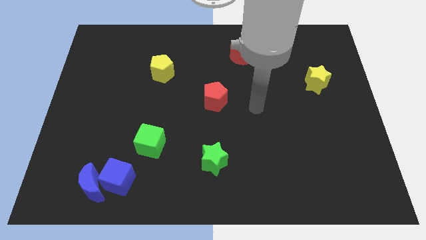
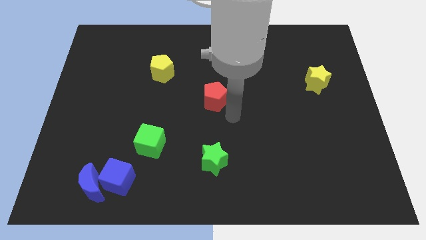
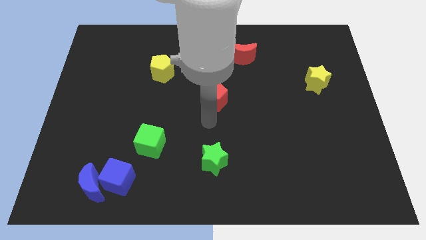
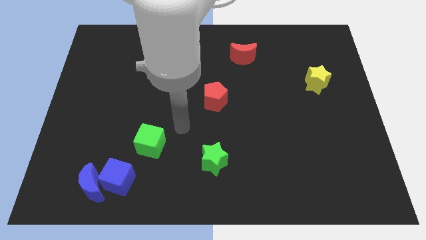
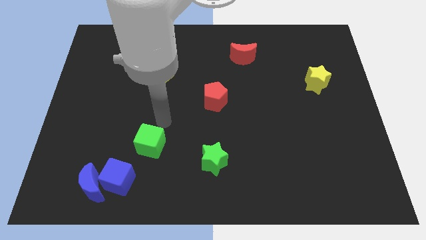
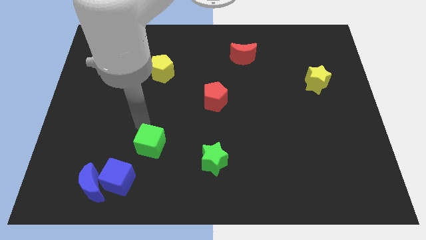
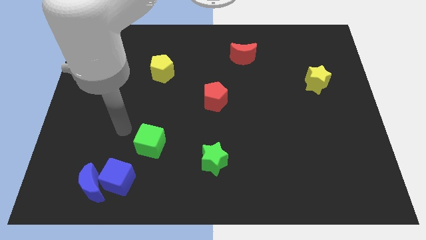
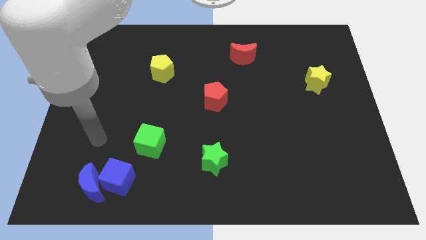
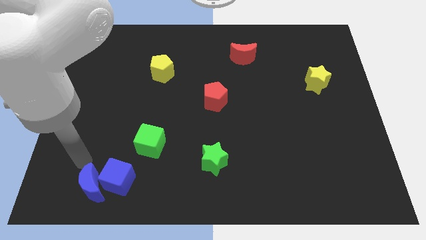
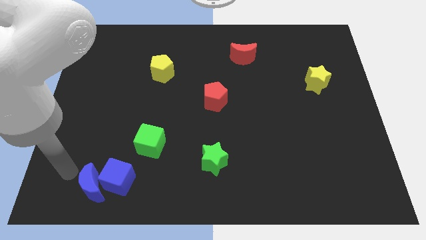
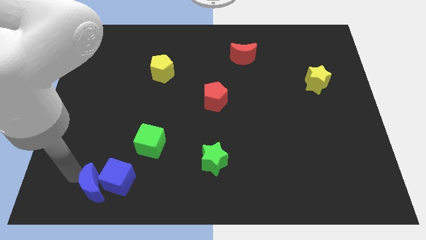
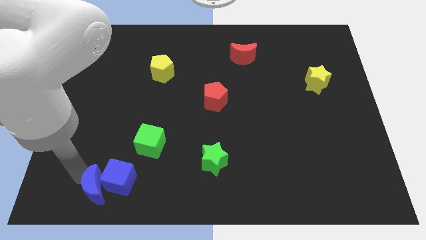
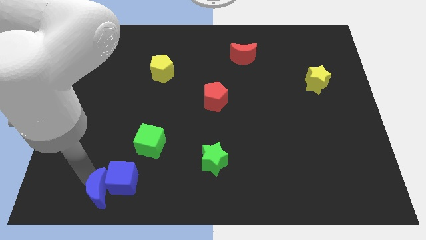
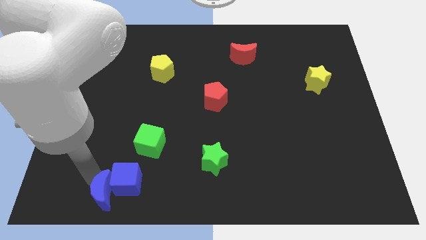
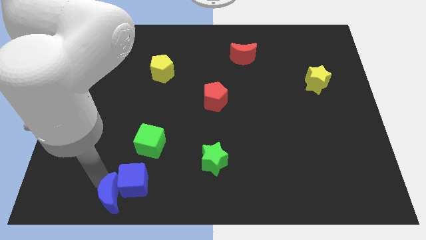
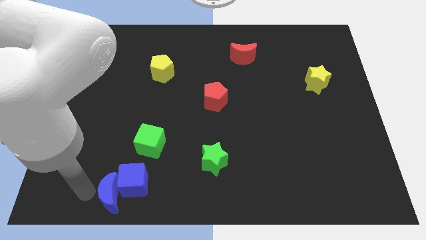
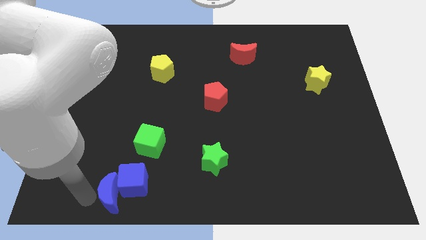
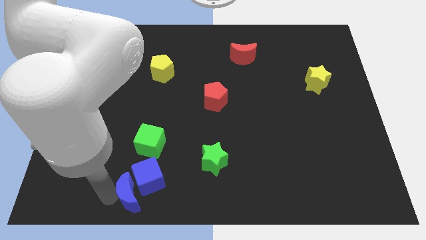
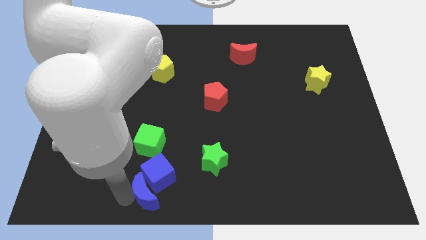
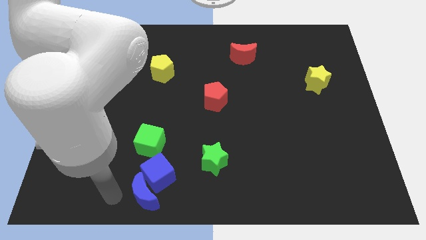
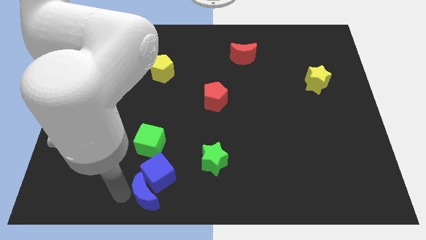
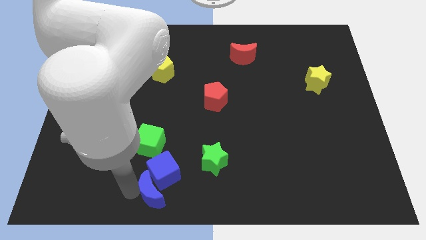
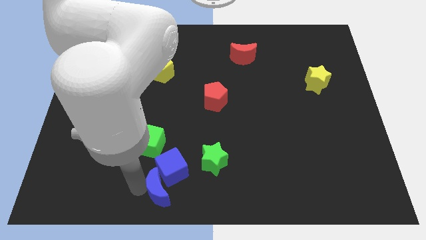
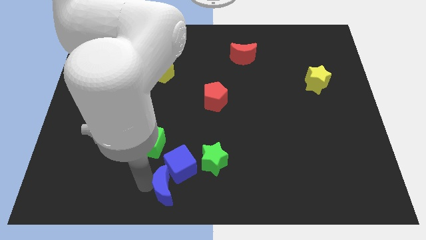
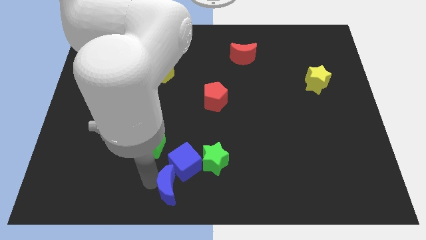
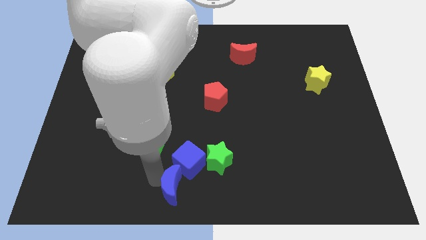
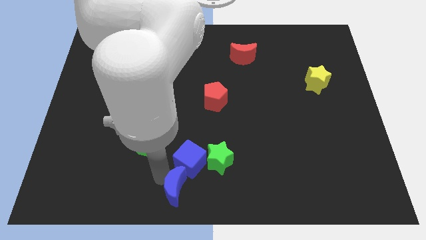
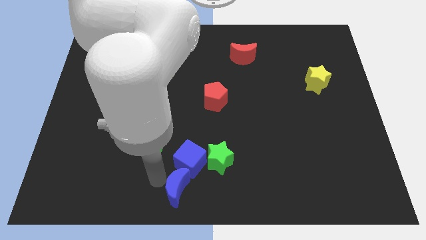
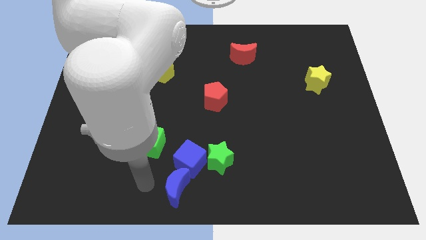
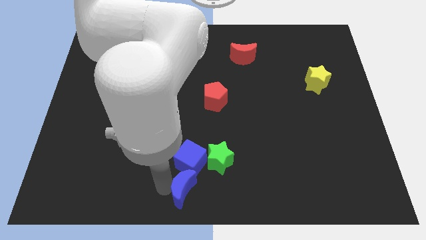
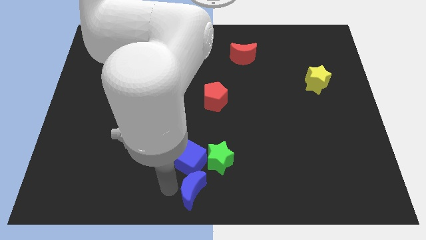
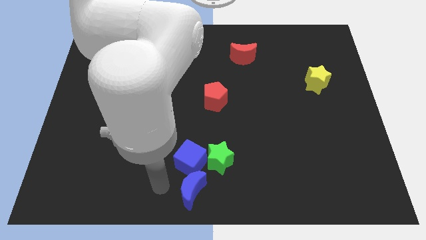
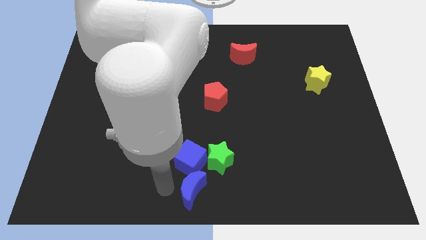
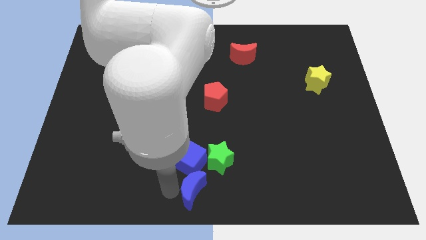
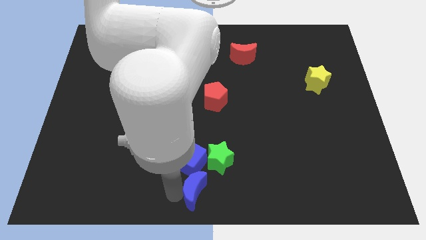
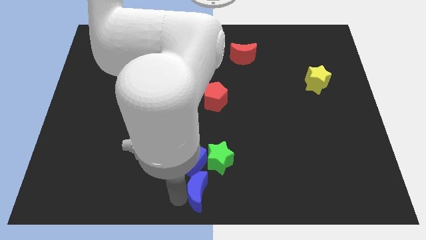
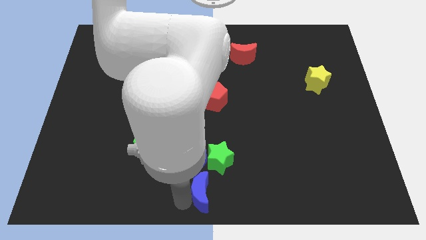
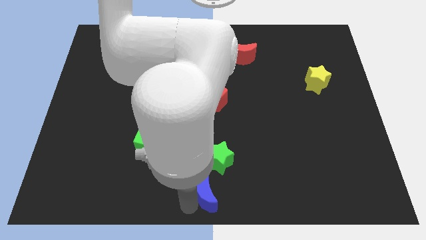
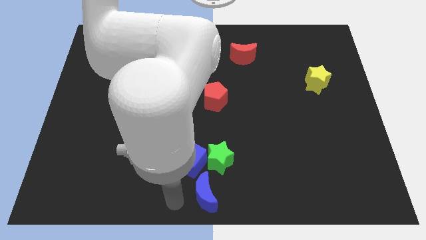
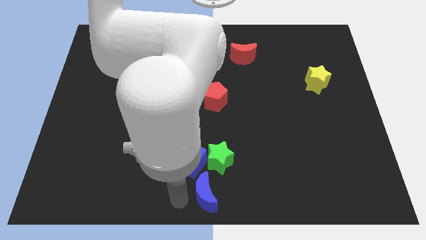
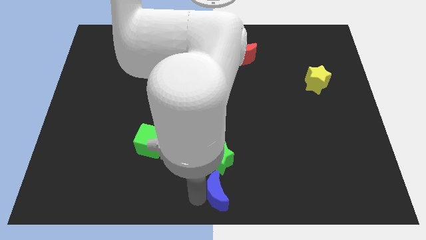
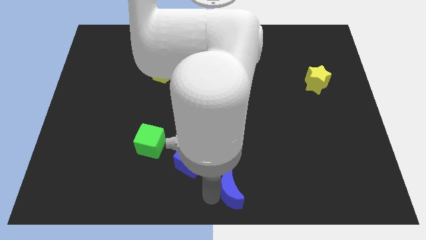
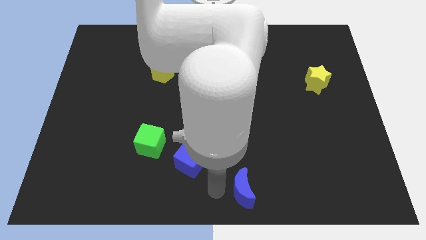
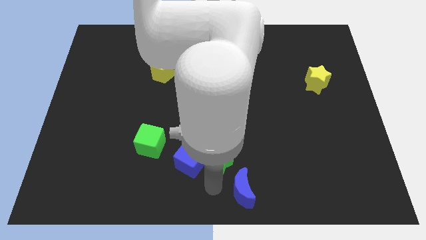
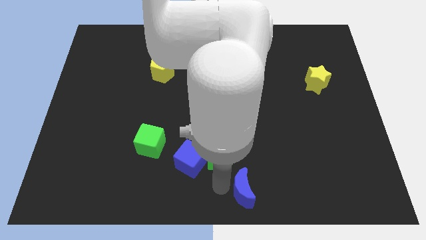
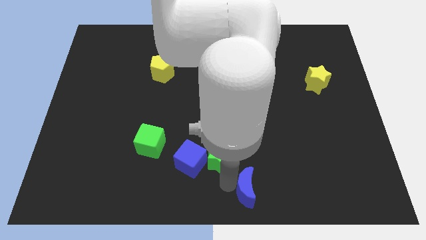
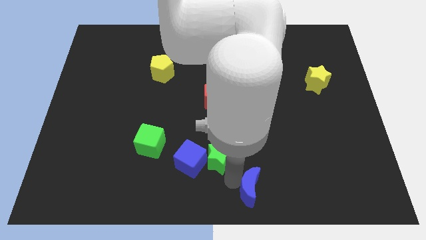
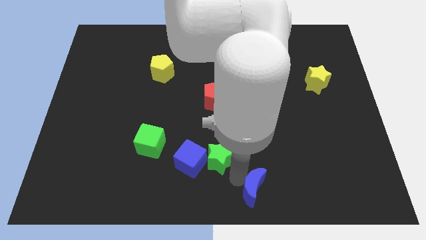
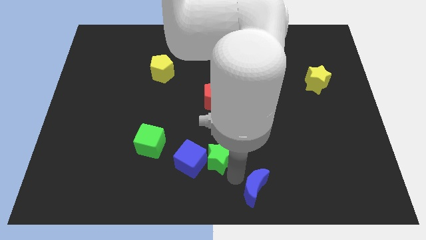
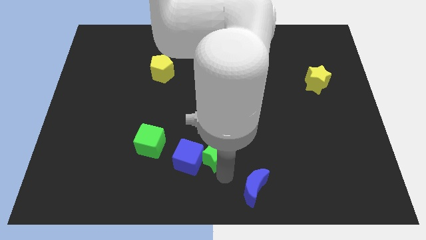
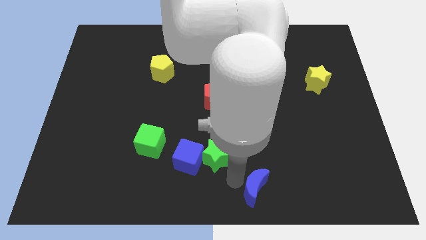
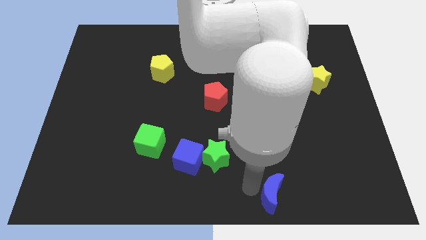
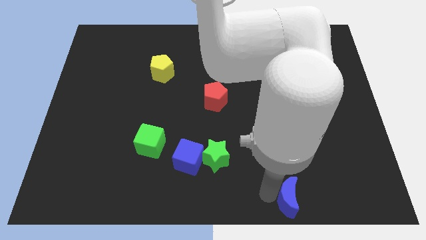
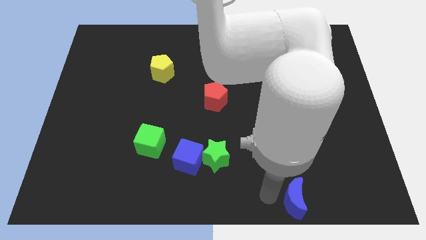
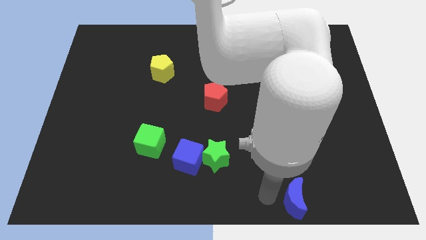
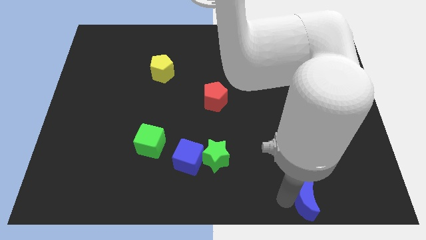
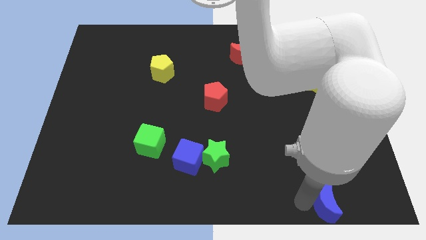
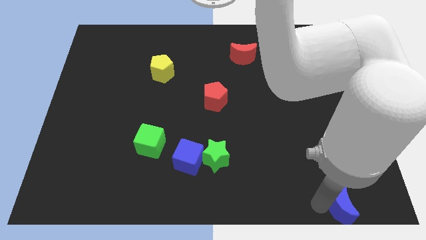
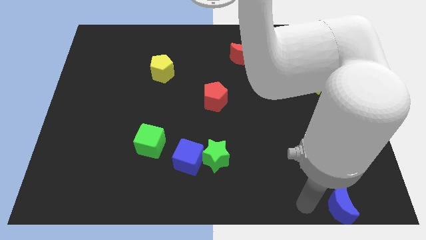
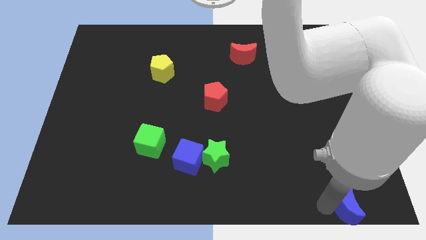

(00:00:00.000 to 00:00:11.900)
slide the blue moon to the bottom right
